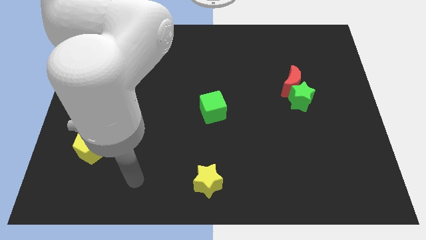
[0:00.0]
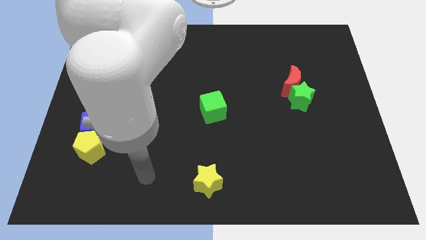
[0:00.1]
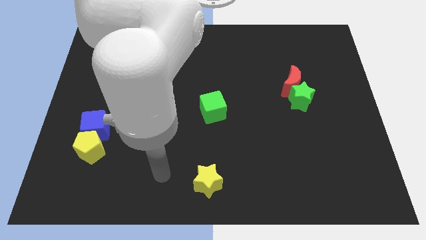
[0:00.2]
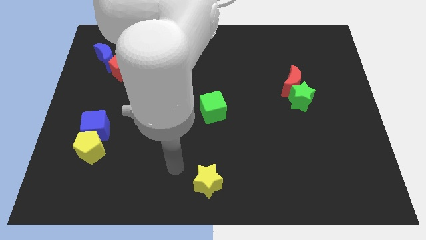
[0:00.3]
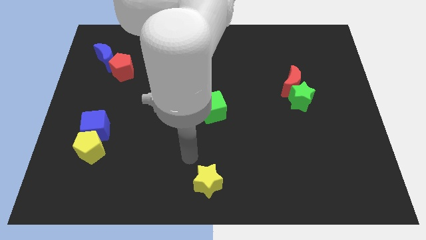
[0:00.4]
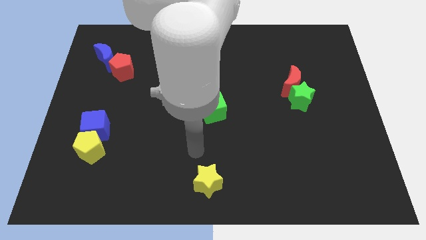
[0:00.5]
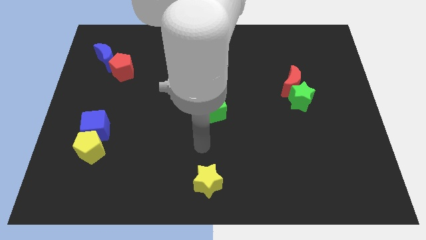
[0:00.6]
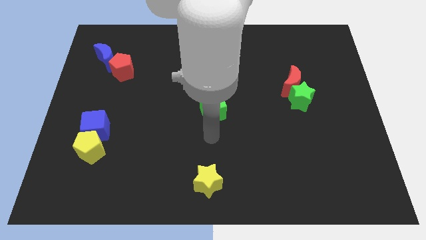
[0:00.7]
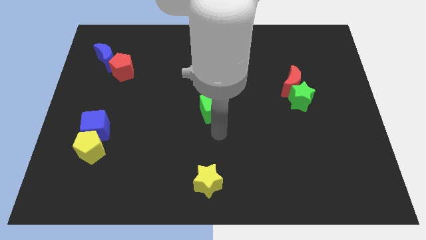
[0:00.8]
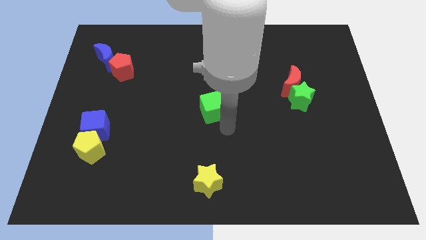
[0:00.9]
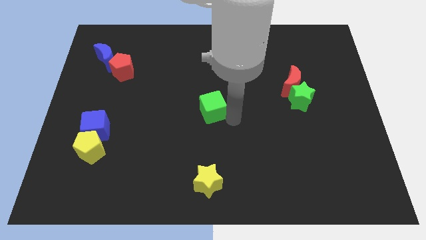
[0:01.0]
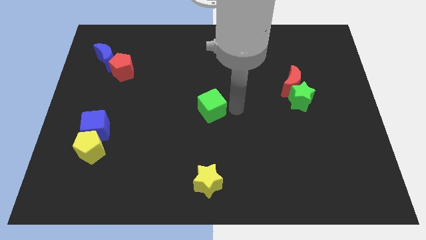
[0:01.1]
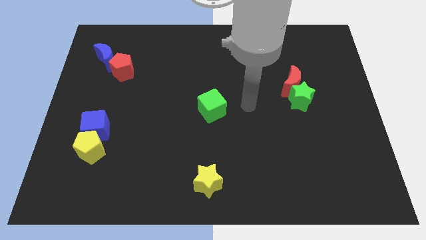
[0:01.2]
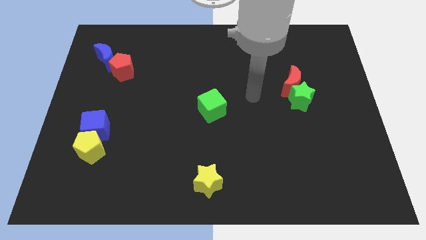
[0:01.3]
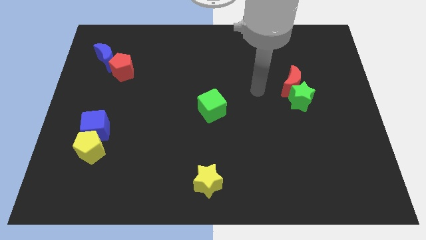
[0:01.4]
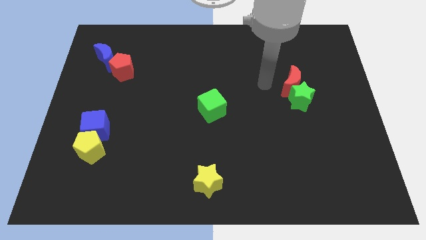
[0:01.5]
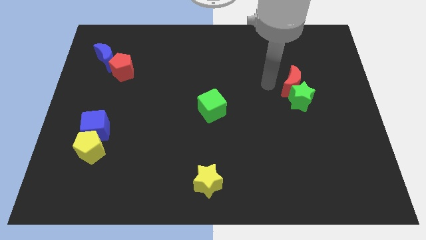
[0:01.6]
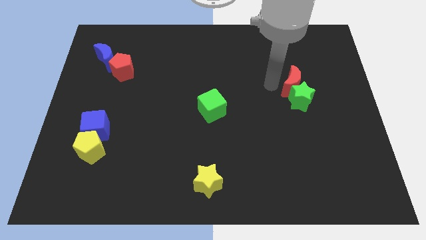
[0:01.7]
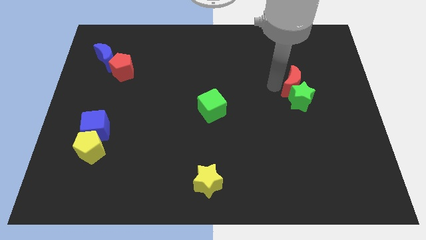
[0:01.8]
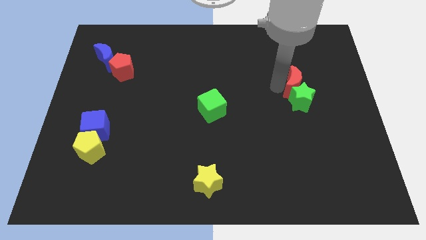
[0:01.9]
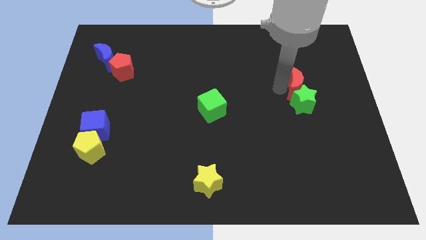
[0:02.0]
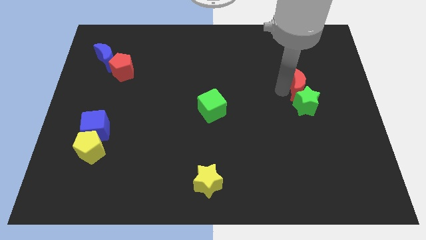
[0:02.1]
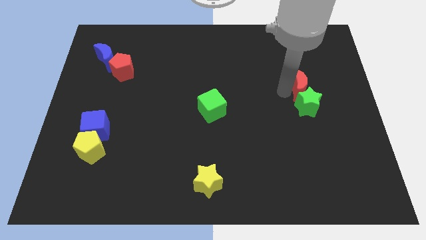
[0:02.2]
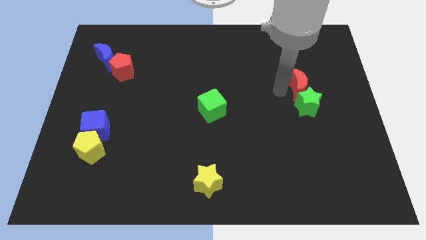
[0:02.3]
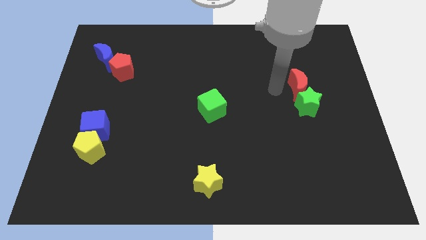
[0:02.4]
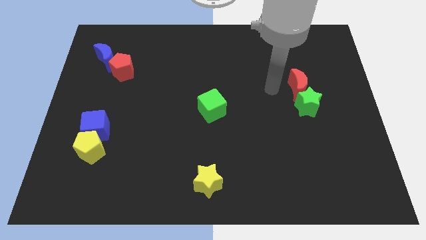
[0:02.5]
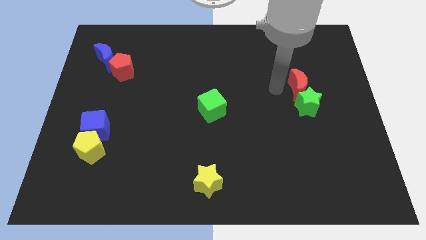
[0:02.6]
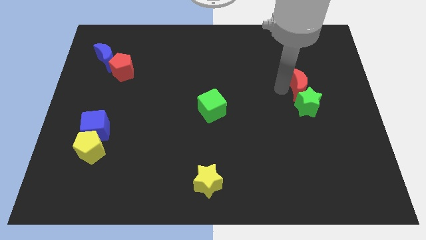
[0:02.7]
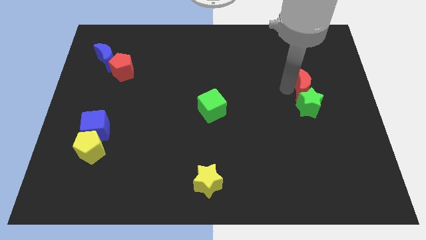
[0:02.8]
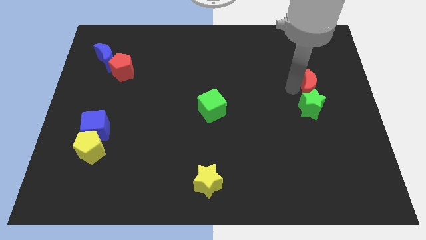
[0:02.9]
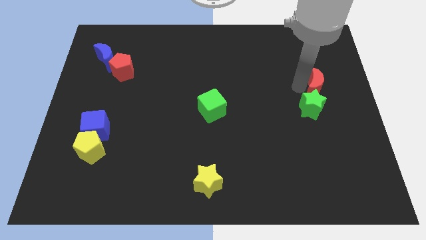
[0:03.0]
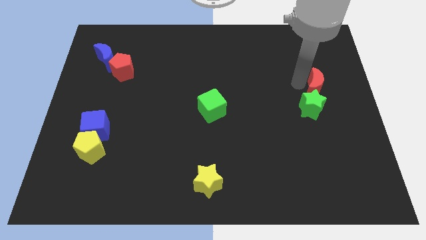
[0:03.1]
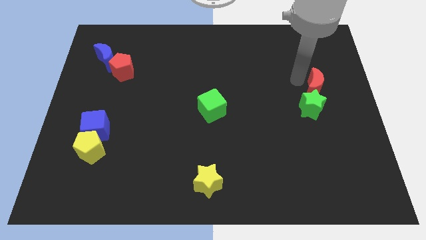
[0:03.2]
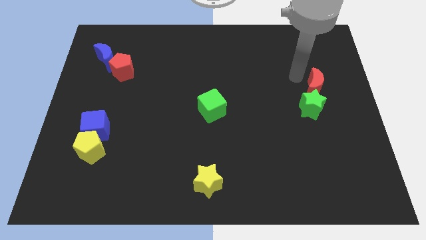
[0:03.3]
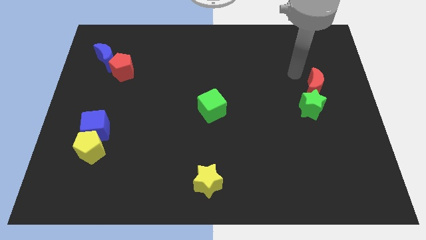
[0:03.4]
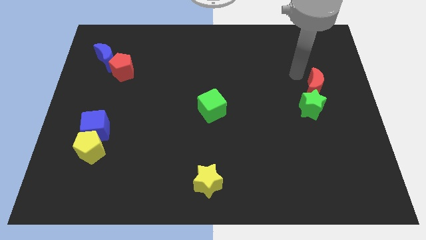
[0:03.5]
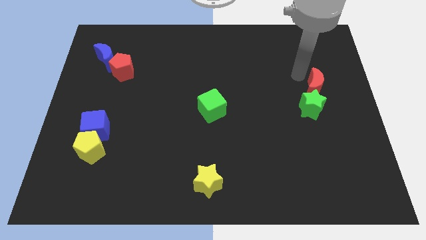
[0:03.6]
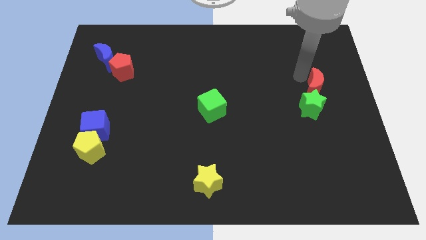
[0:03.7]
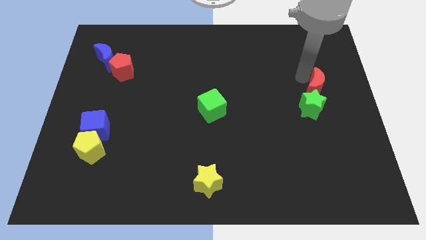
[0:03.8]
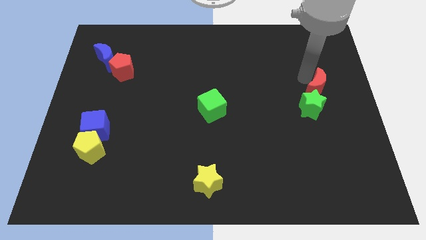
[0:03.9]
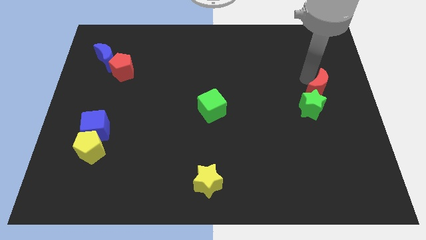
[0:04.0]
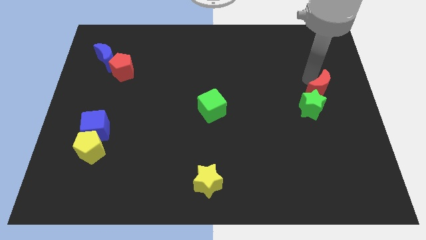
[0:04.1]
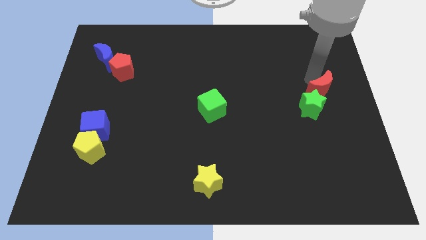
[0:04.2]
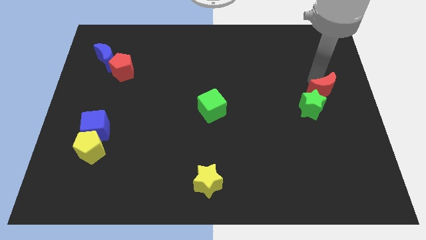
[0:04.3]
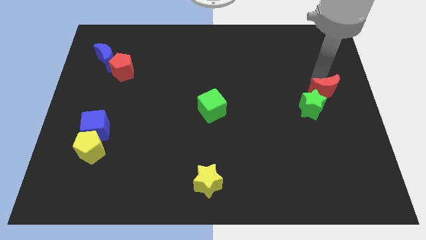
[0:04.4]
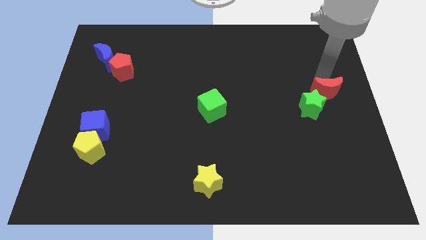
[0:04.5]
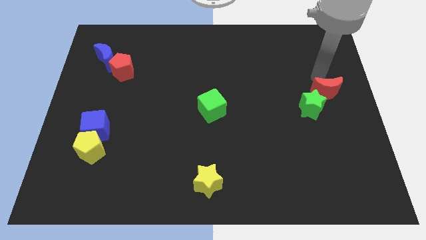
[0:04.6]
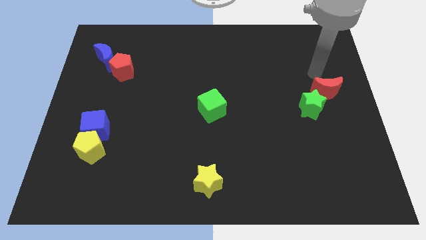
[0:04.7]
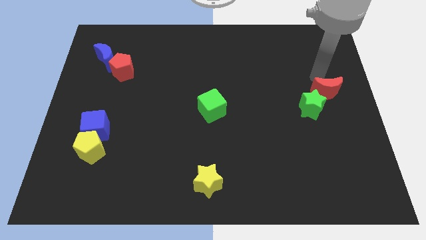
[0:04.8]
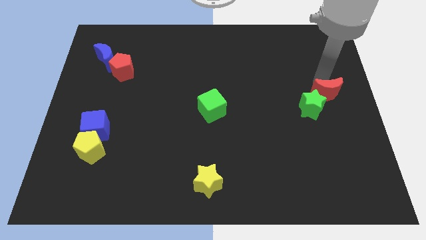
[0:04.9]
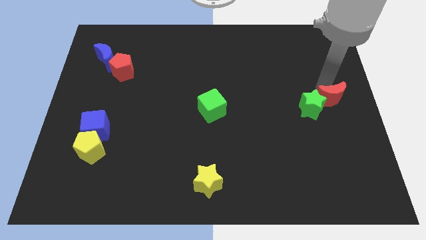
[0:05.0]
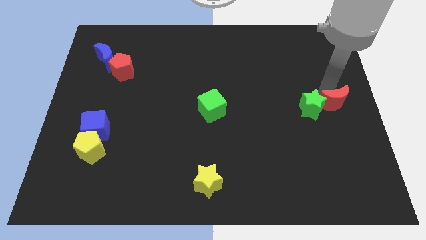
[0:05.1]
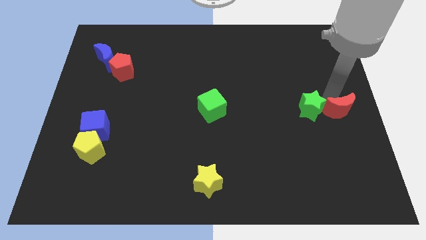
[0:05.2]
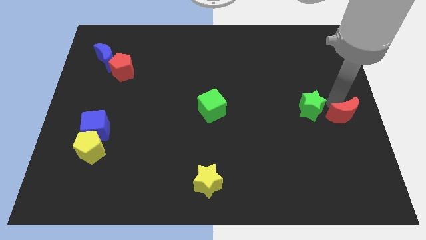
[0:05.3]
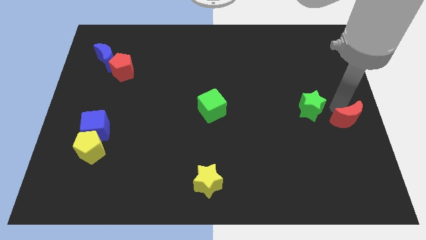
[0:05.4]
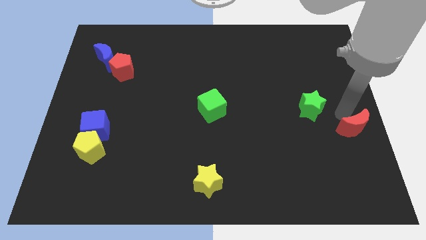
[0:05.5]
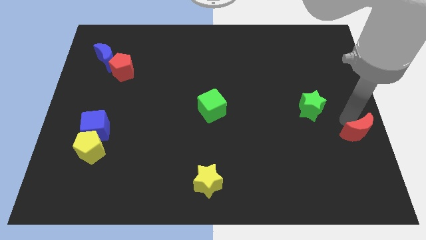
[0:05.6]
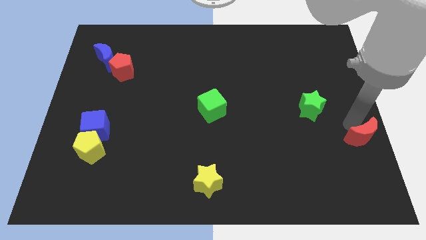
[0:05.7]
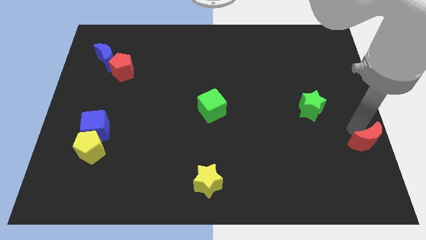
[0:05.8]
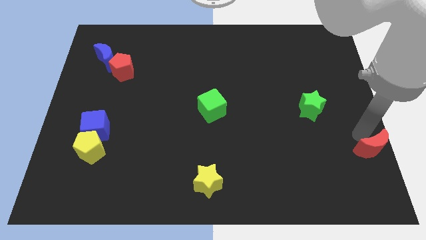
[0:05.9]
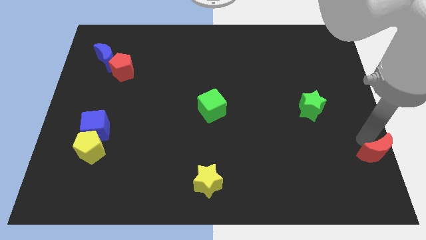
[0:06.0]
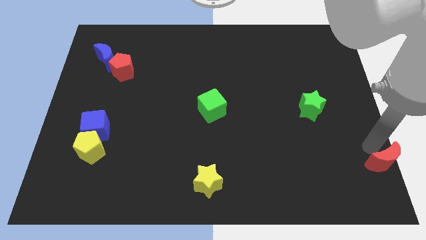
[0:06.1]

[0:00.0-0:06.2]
slide the red moon to the bottom right corner

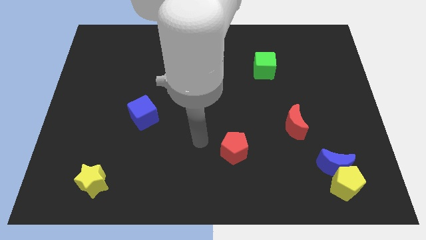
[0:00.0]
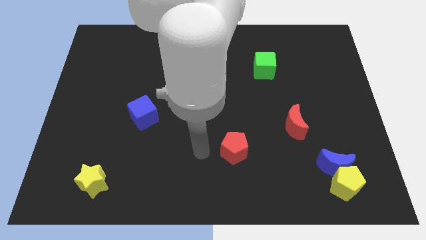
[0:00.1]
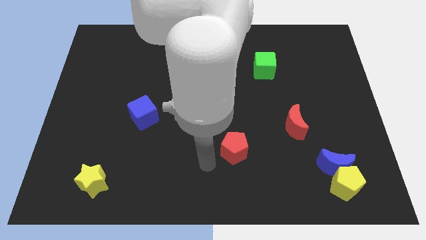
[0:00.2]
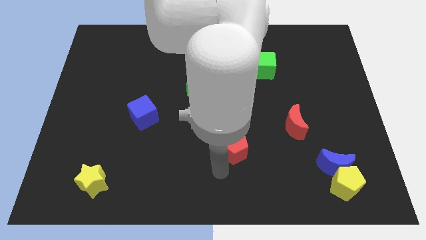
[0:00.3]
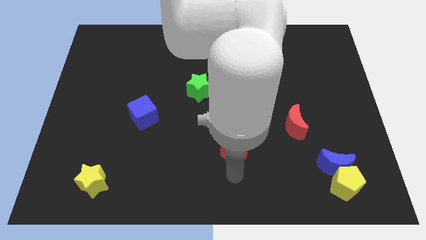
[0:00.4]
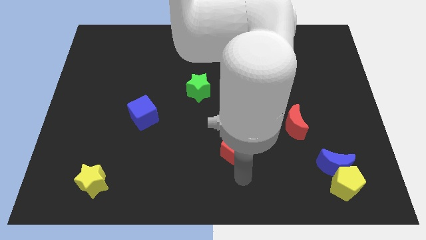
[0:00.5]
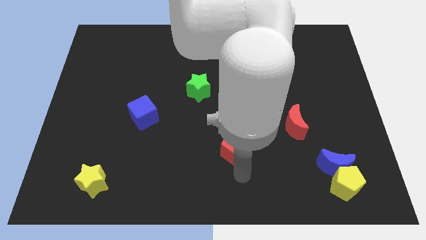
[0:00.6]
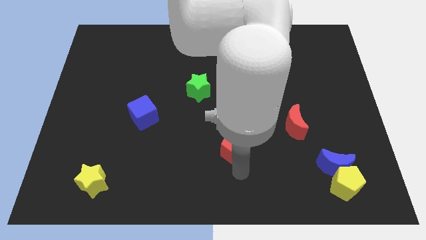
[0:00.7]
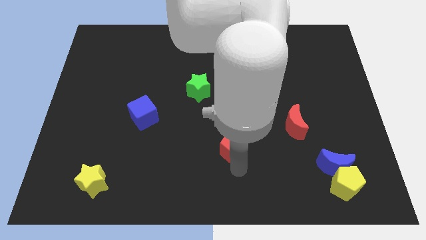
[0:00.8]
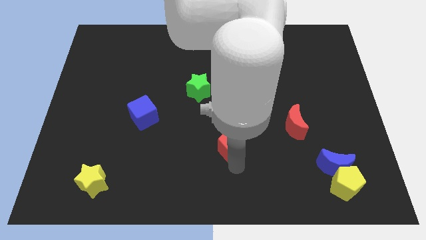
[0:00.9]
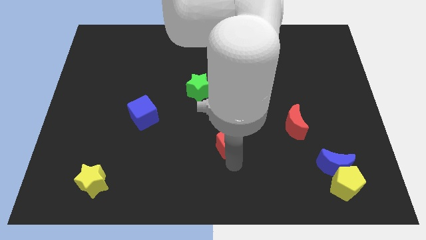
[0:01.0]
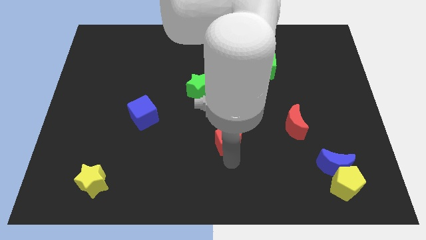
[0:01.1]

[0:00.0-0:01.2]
move the red pentagon to the middle of the board
